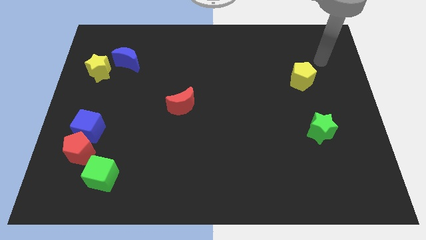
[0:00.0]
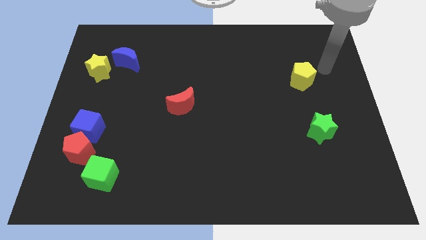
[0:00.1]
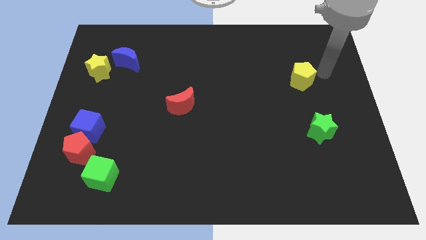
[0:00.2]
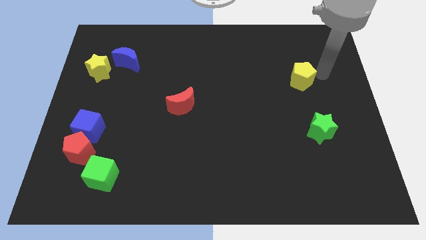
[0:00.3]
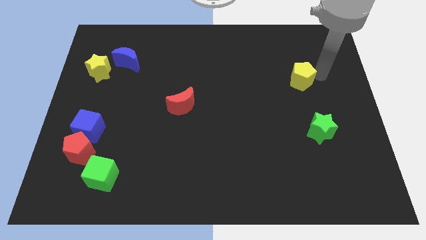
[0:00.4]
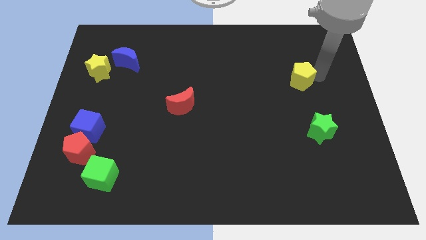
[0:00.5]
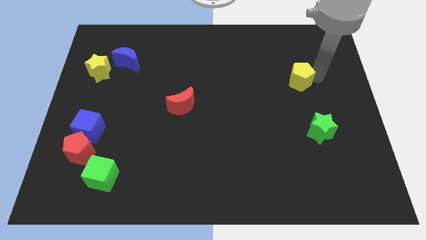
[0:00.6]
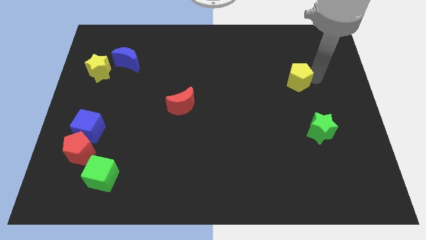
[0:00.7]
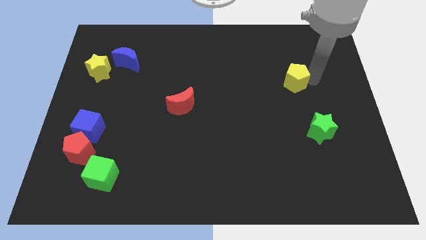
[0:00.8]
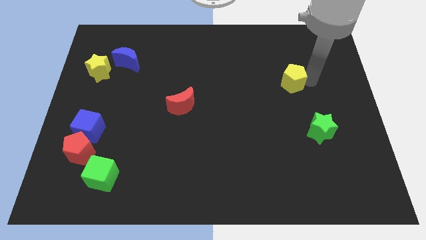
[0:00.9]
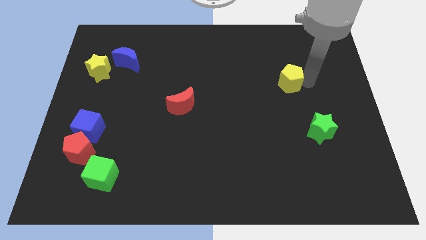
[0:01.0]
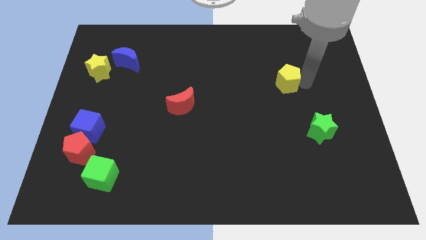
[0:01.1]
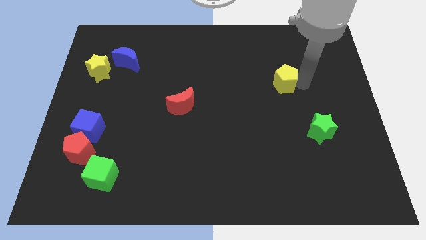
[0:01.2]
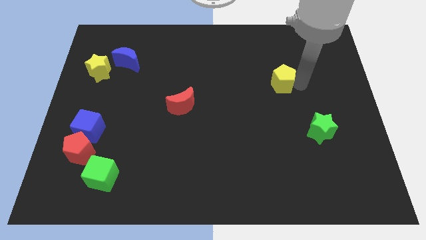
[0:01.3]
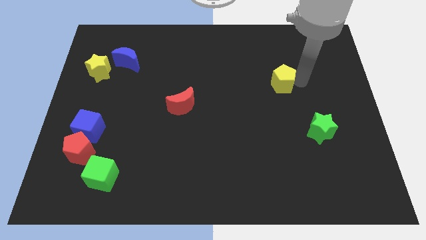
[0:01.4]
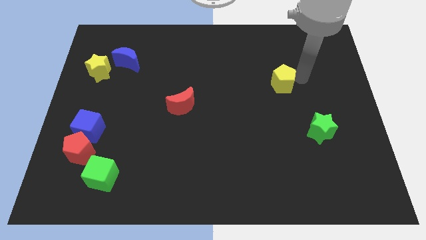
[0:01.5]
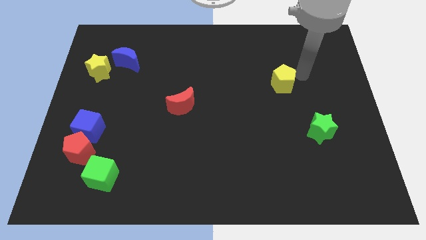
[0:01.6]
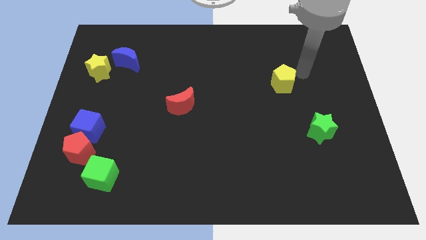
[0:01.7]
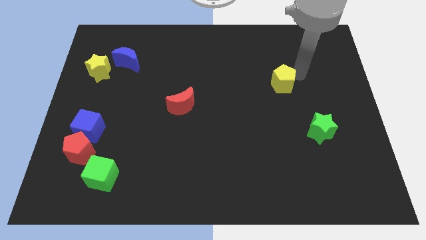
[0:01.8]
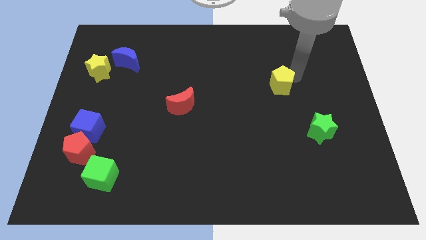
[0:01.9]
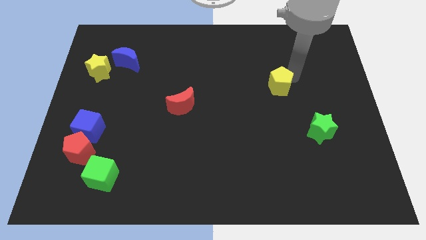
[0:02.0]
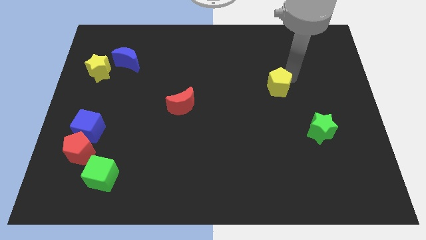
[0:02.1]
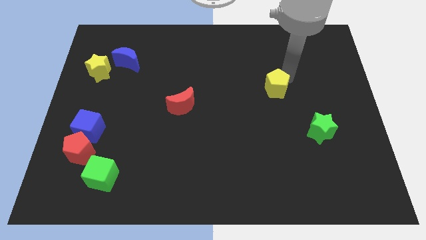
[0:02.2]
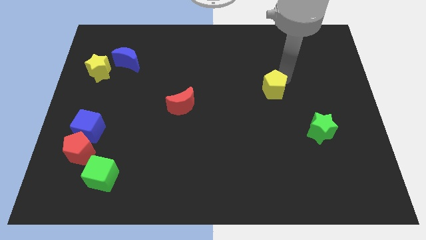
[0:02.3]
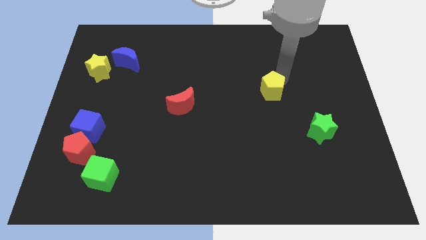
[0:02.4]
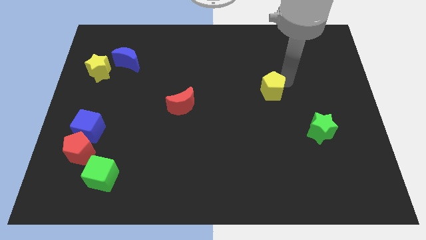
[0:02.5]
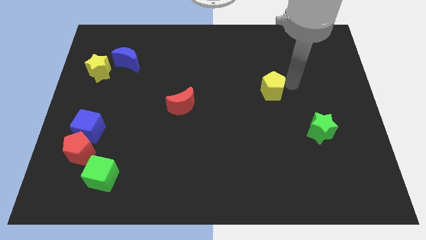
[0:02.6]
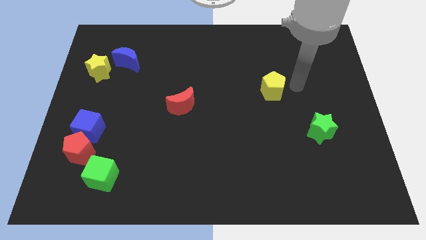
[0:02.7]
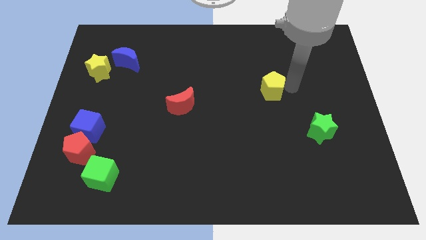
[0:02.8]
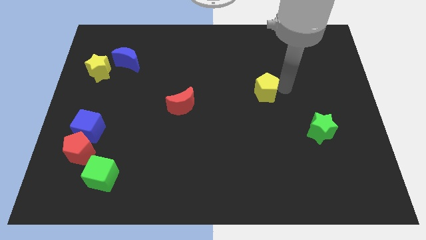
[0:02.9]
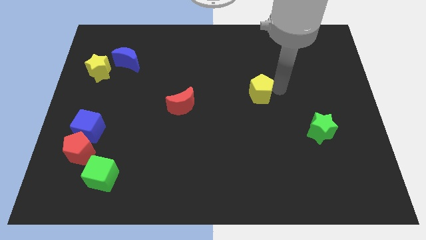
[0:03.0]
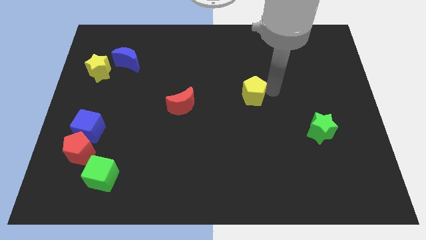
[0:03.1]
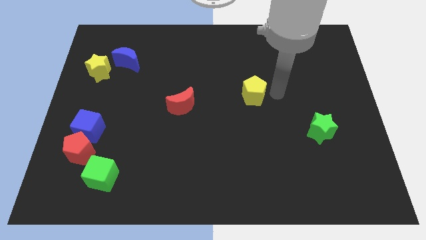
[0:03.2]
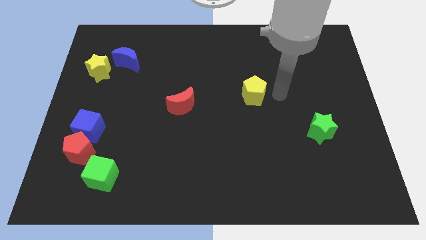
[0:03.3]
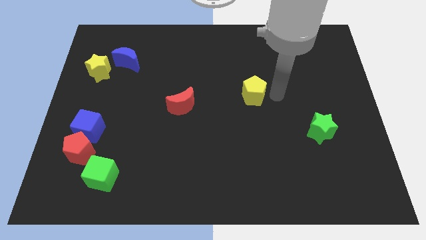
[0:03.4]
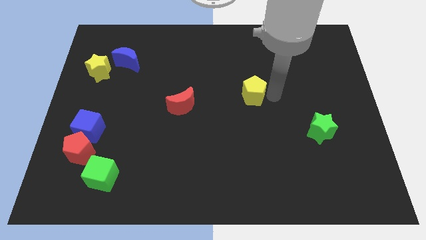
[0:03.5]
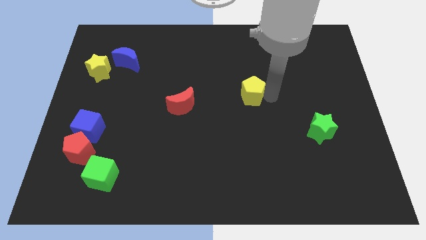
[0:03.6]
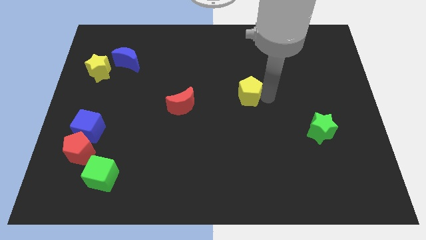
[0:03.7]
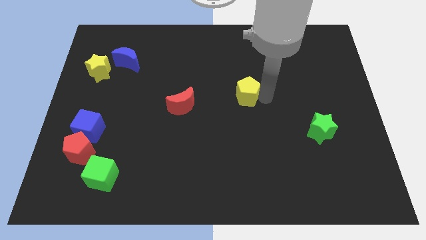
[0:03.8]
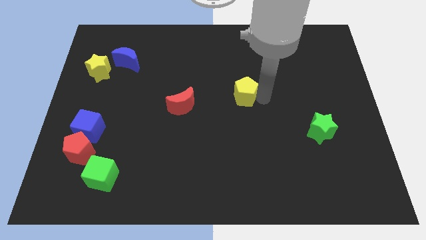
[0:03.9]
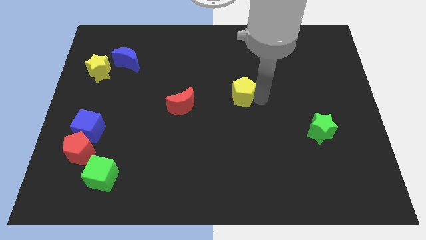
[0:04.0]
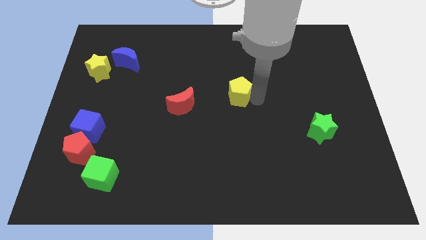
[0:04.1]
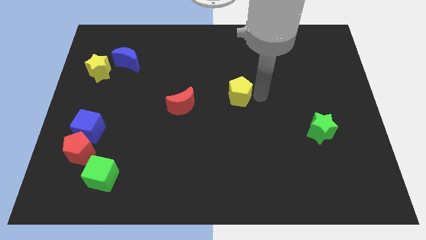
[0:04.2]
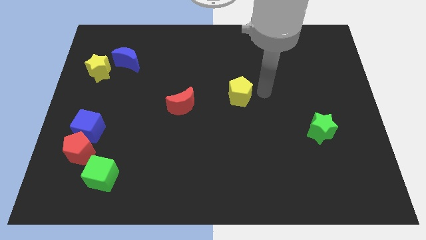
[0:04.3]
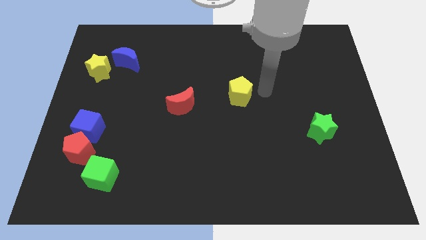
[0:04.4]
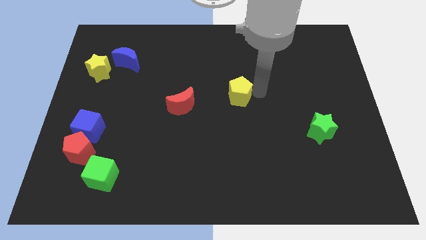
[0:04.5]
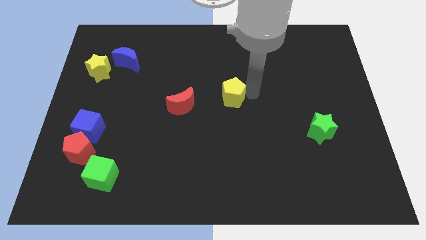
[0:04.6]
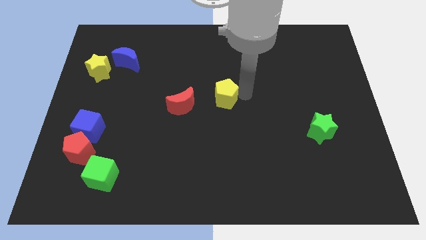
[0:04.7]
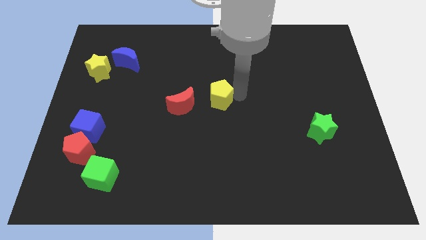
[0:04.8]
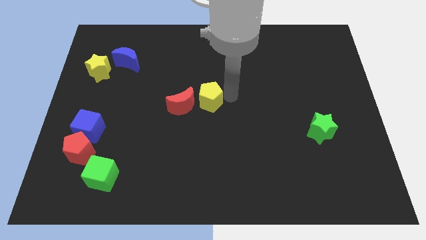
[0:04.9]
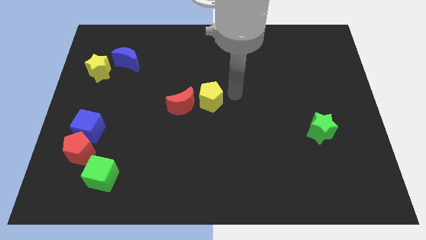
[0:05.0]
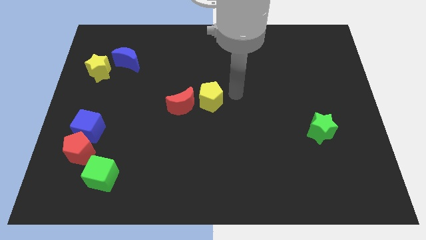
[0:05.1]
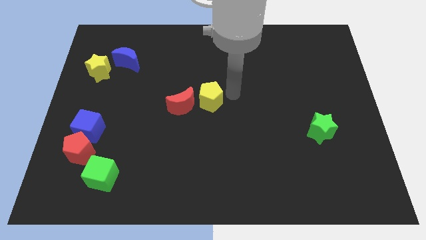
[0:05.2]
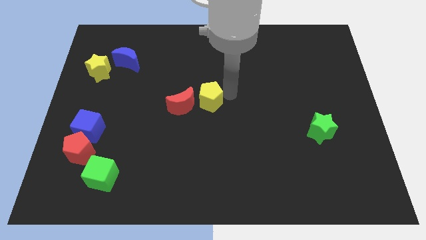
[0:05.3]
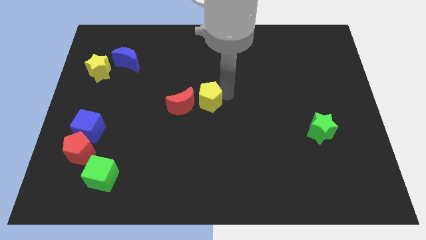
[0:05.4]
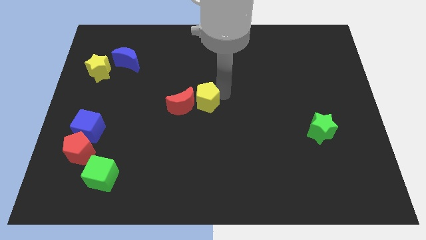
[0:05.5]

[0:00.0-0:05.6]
move the yellow pentagon close to the red moon

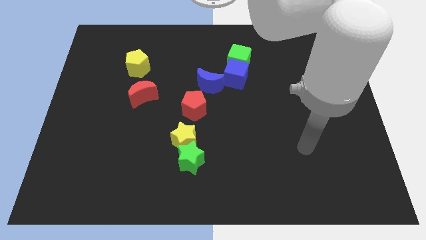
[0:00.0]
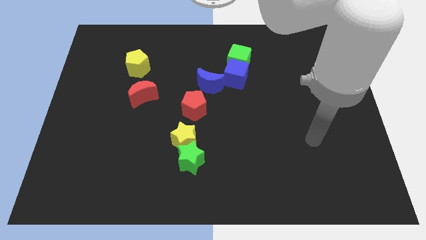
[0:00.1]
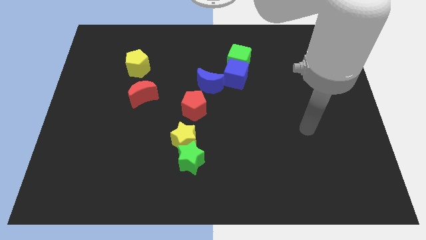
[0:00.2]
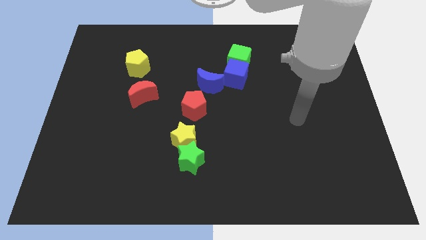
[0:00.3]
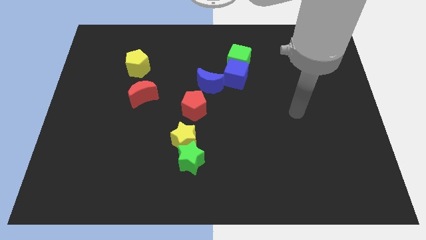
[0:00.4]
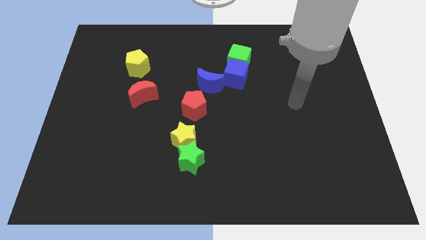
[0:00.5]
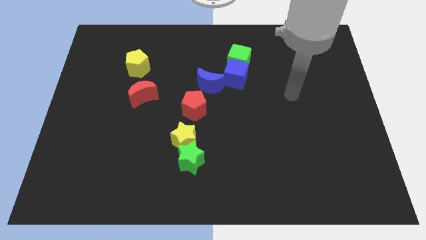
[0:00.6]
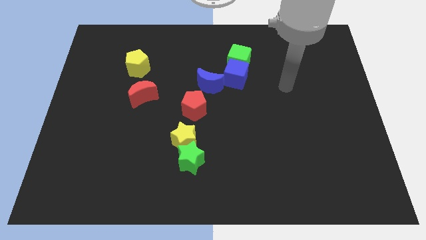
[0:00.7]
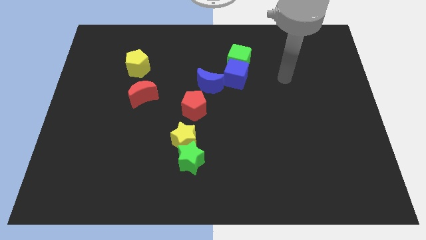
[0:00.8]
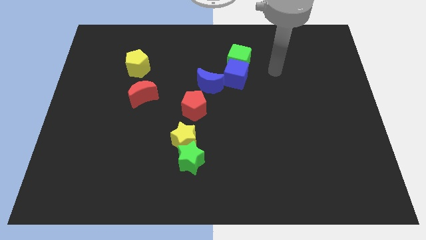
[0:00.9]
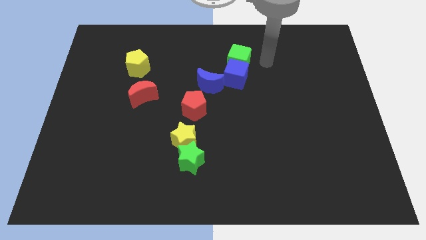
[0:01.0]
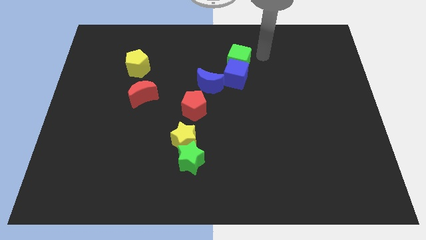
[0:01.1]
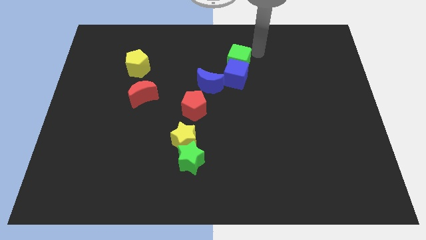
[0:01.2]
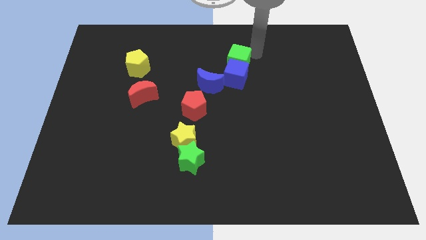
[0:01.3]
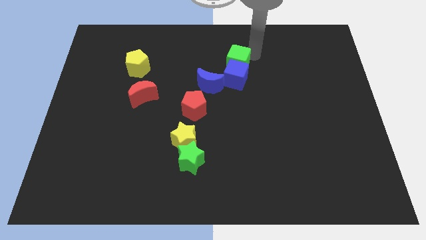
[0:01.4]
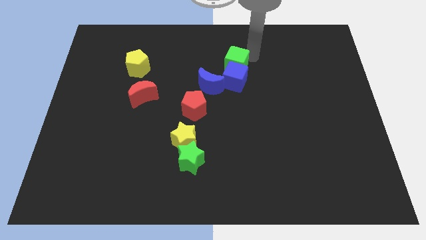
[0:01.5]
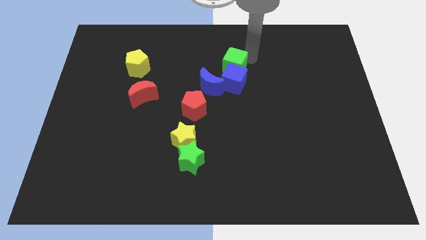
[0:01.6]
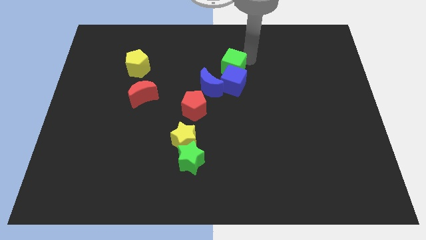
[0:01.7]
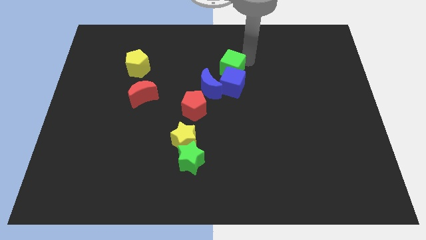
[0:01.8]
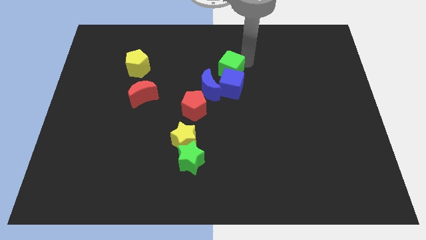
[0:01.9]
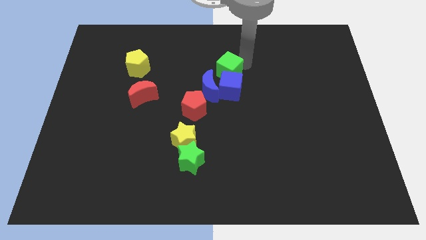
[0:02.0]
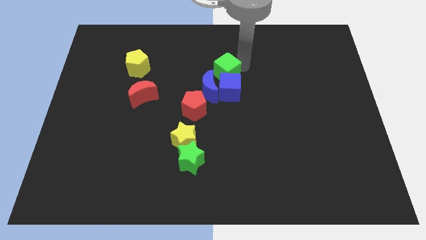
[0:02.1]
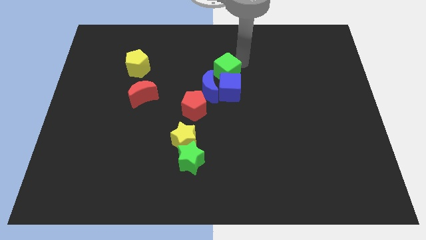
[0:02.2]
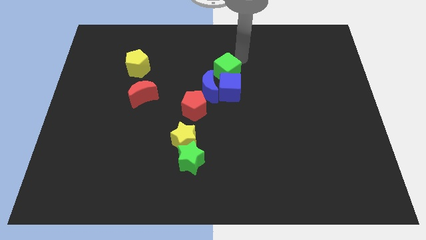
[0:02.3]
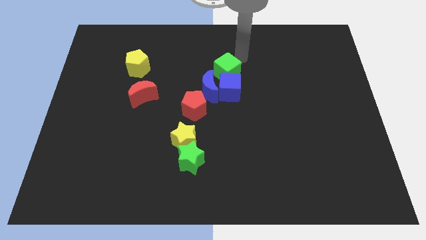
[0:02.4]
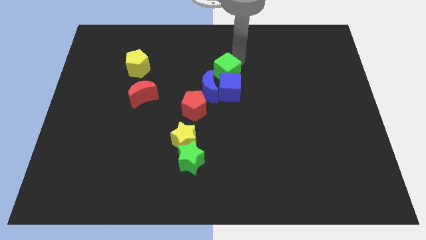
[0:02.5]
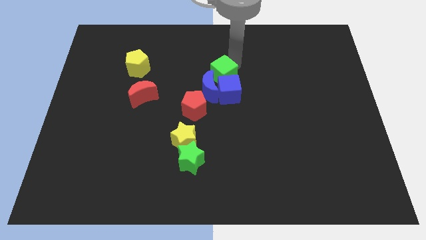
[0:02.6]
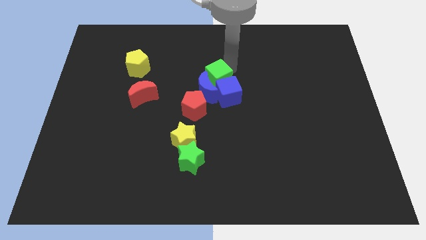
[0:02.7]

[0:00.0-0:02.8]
slide the green cube towards the blue moon
